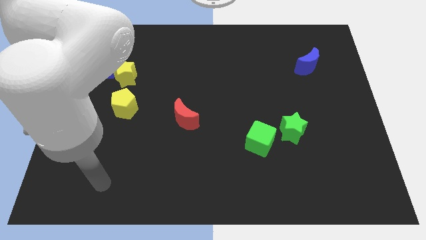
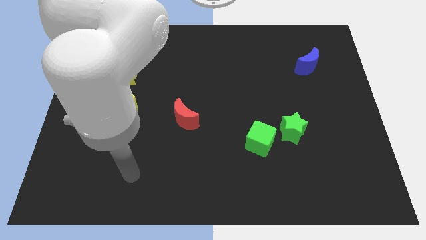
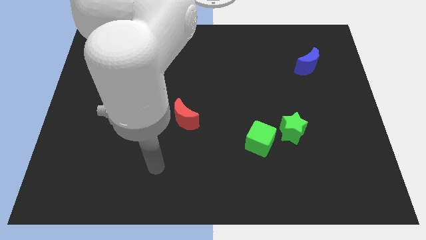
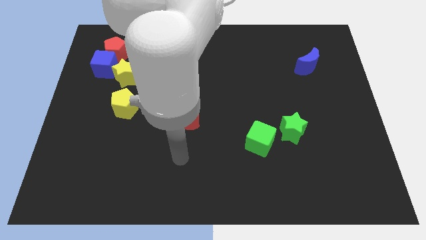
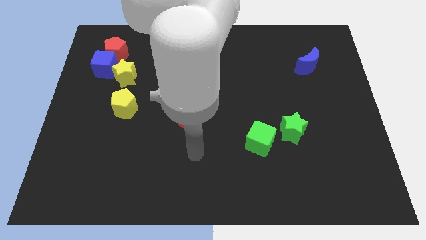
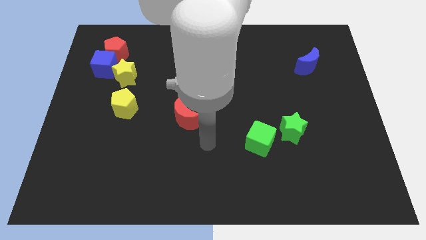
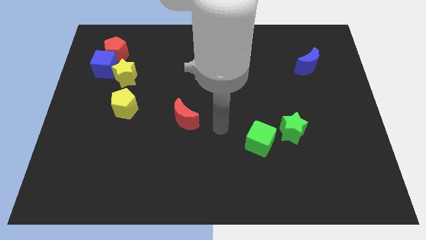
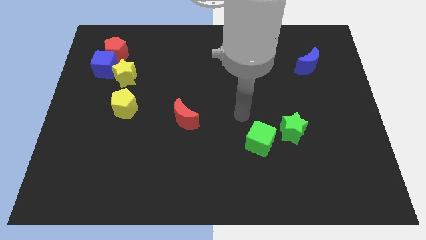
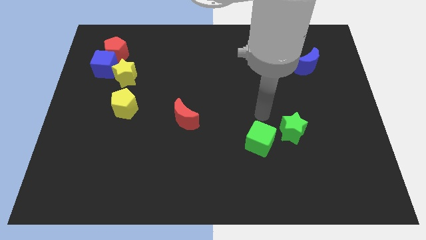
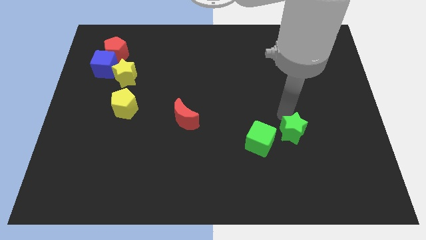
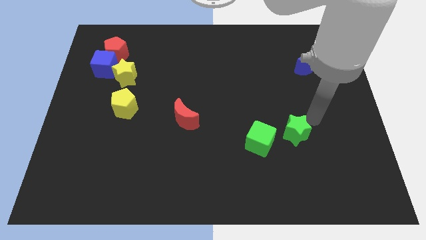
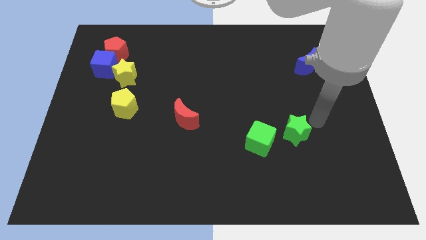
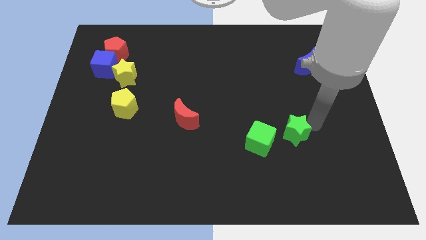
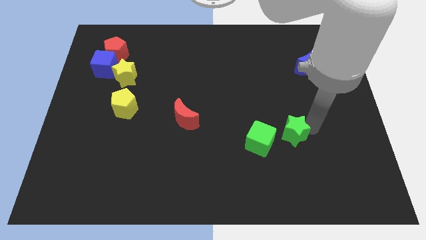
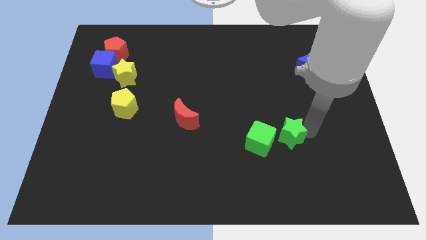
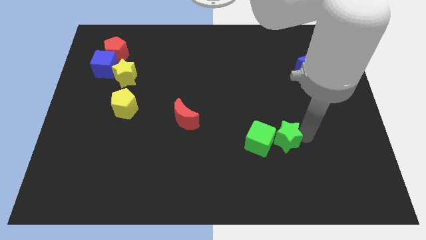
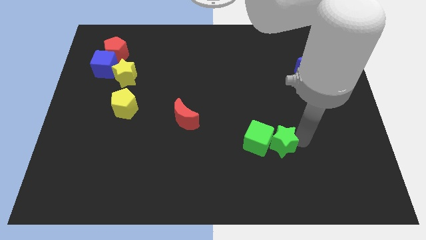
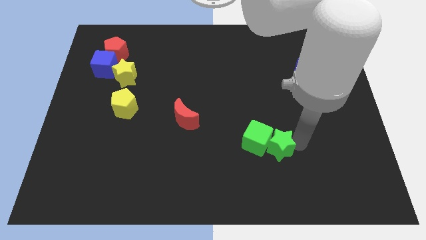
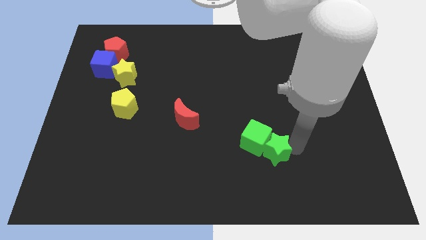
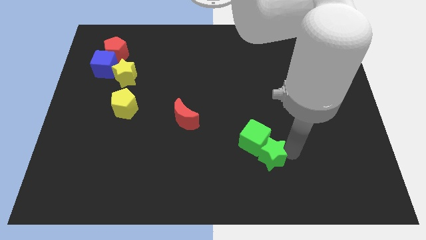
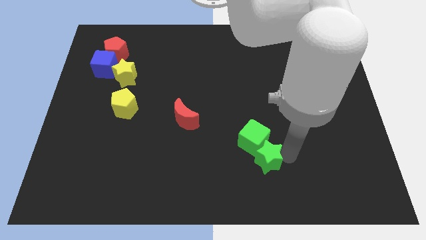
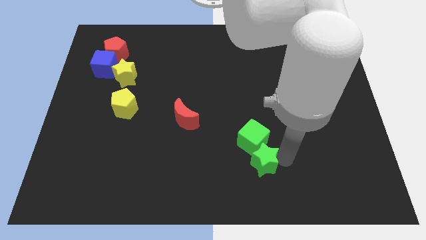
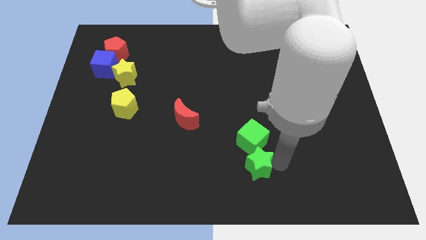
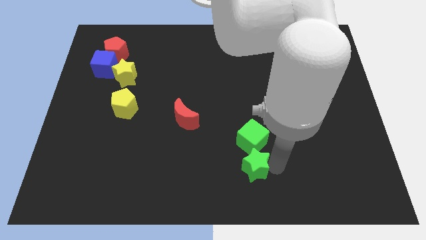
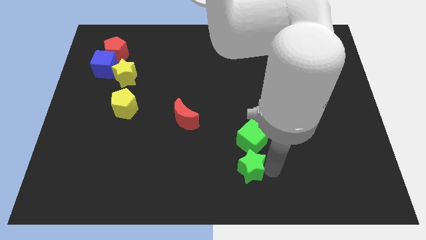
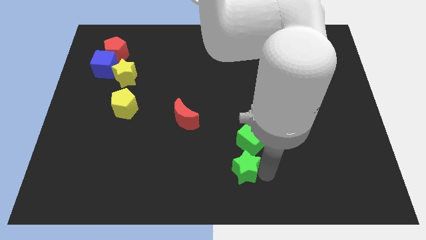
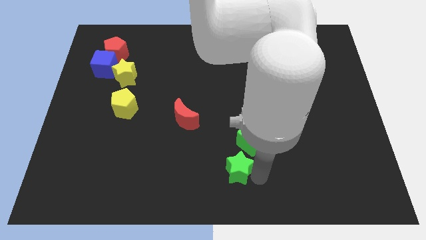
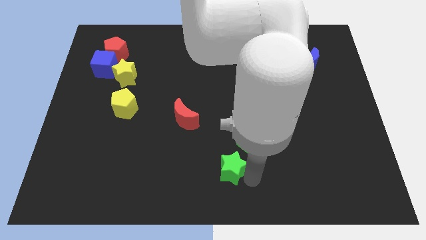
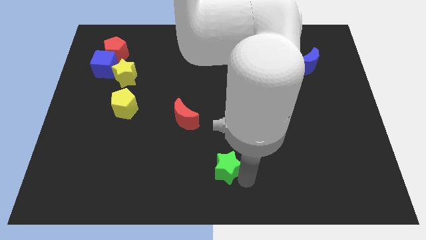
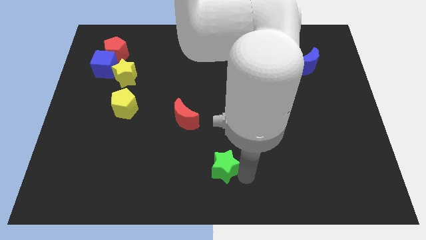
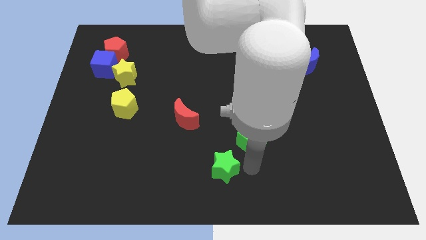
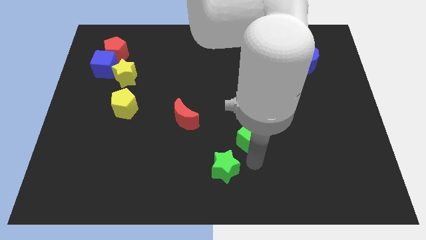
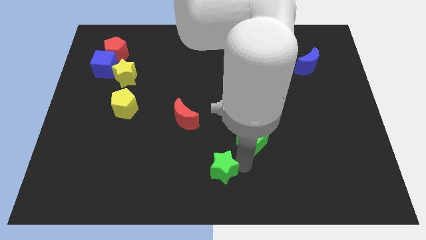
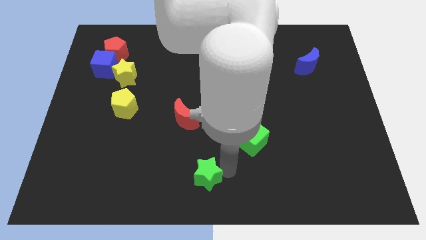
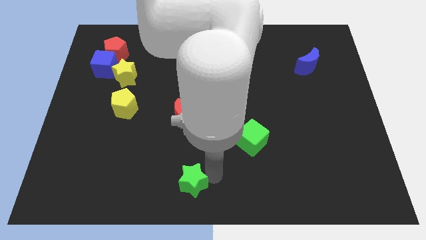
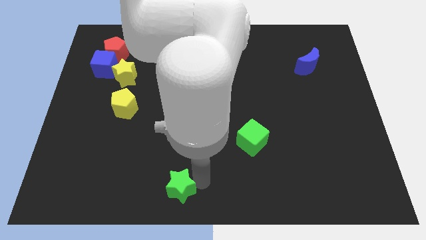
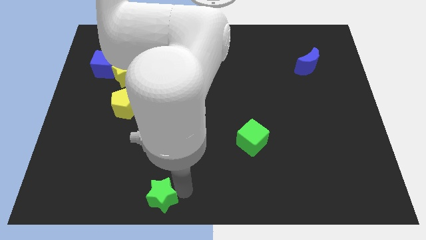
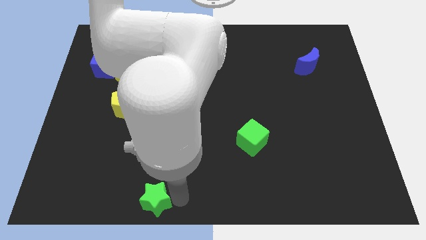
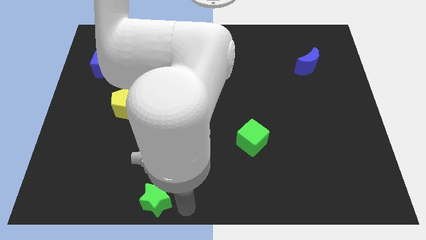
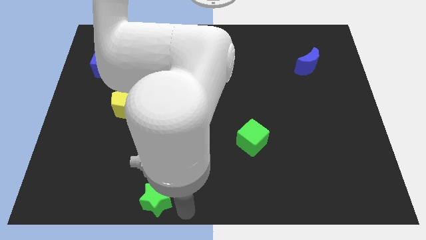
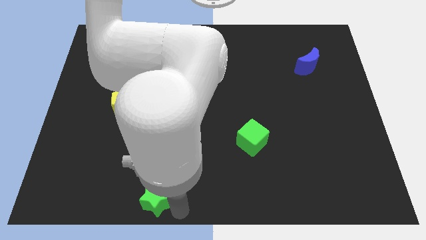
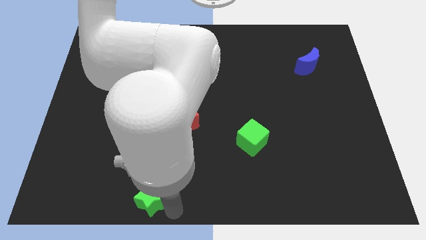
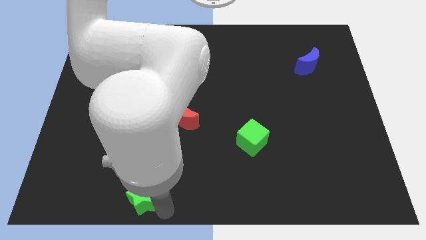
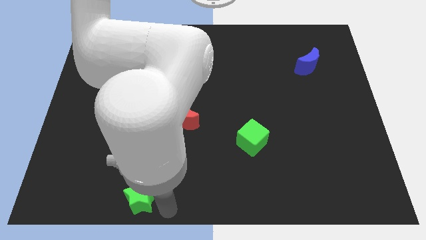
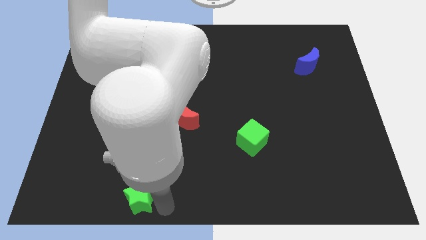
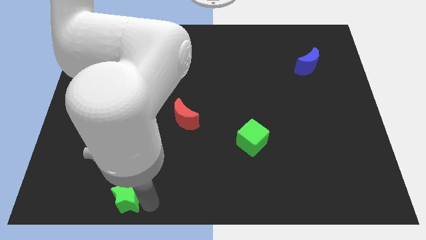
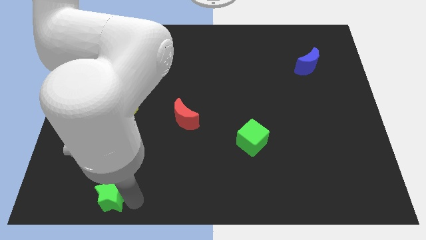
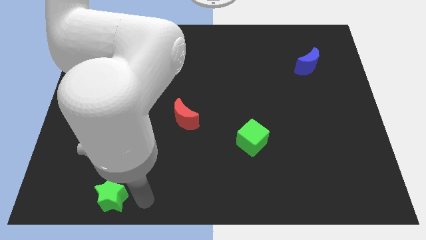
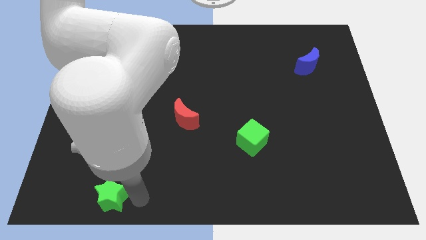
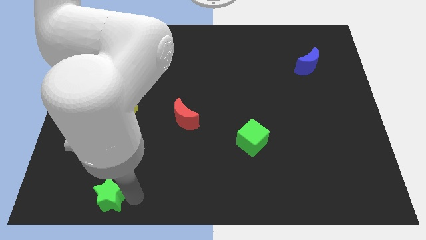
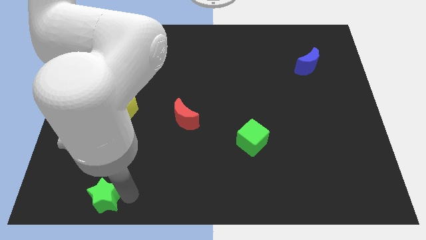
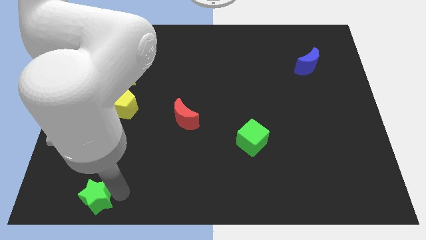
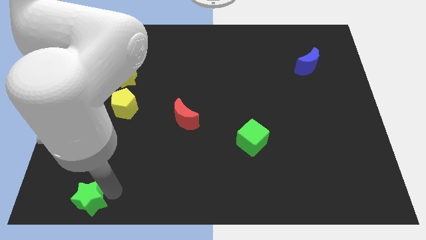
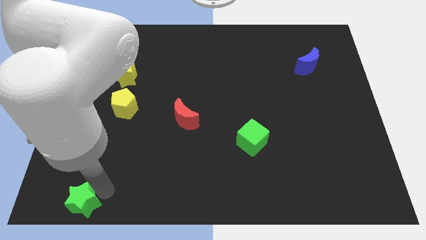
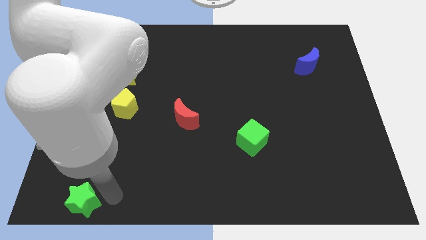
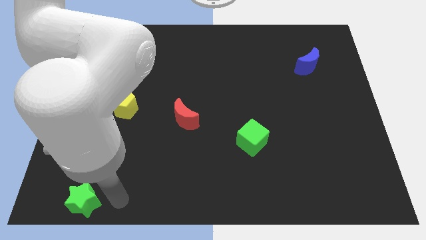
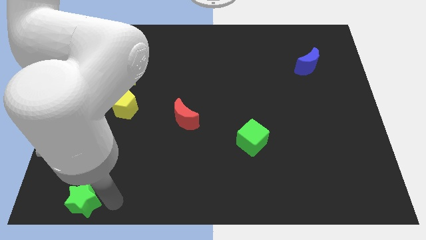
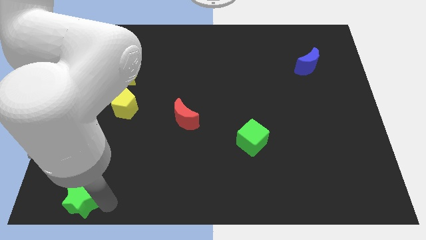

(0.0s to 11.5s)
put the green star to the bottom left corner
